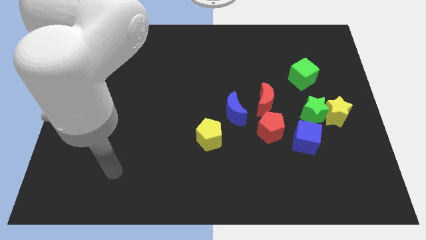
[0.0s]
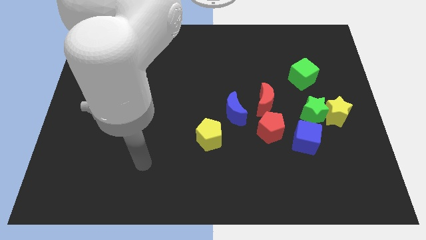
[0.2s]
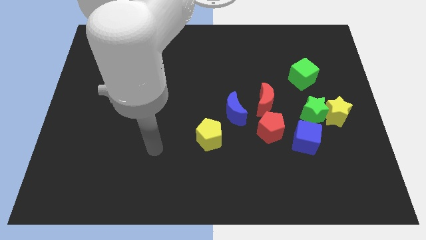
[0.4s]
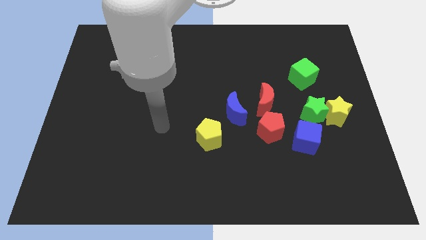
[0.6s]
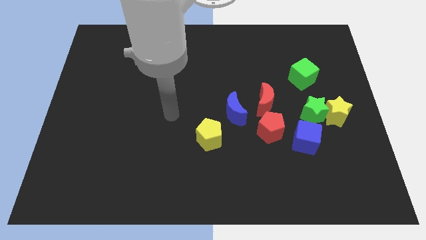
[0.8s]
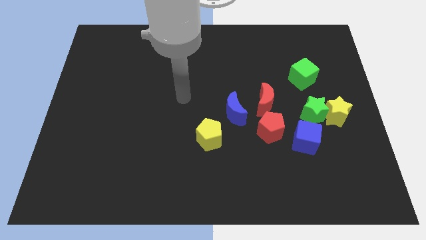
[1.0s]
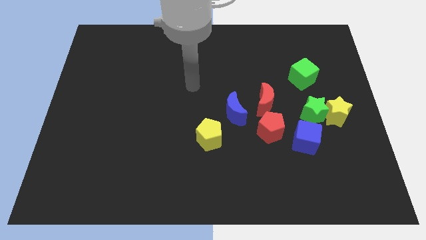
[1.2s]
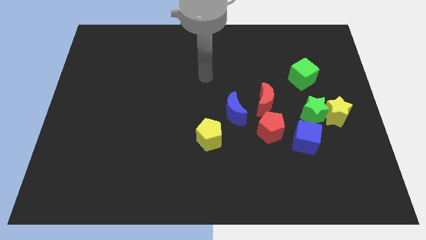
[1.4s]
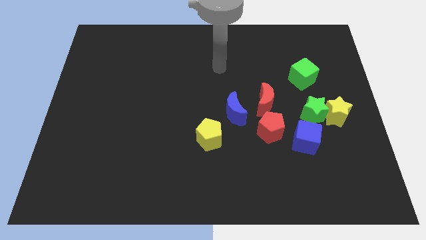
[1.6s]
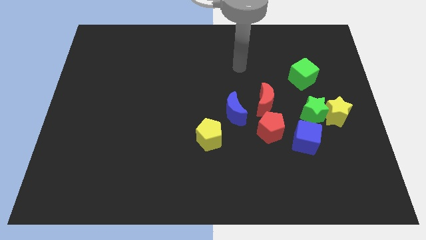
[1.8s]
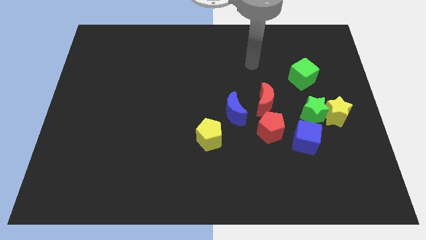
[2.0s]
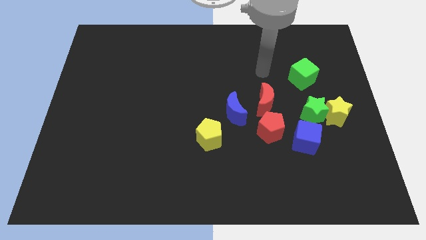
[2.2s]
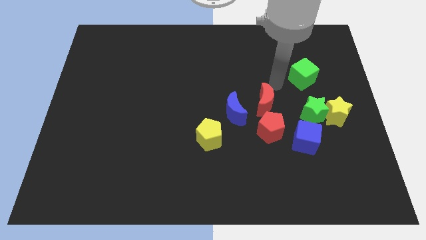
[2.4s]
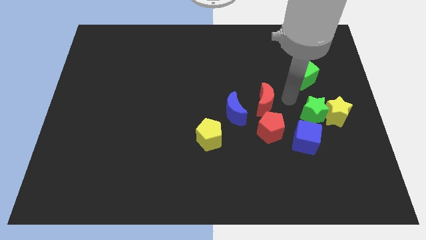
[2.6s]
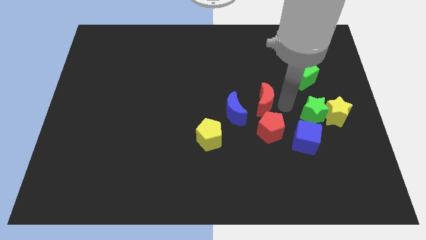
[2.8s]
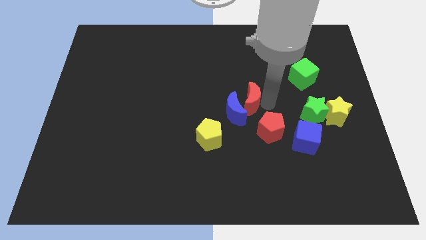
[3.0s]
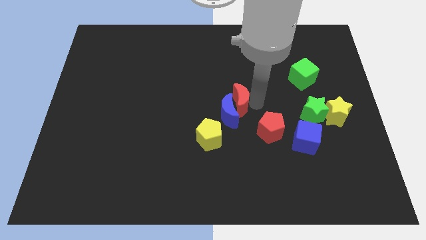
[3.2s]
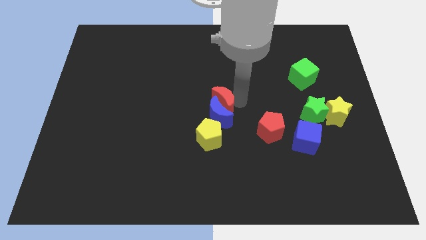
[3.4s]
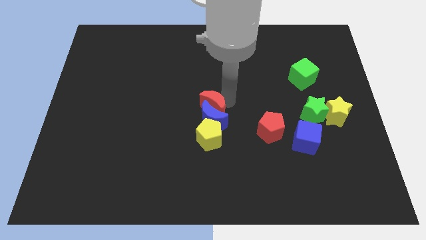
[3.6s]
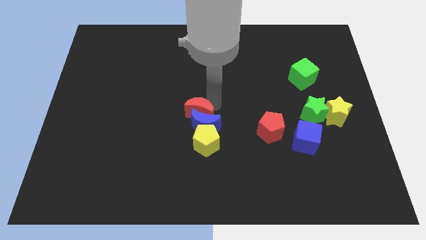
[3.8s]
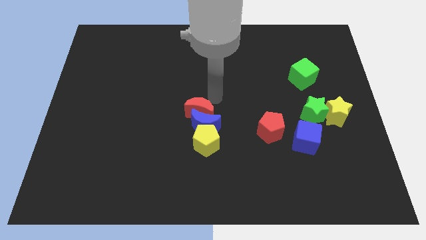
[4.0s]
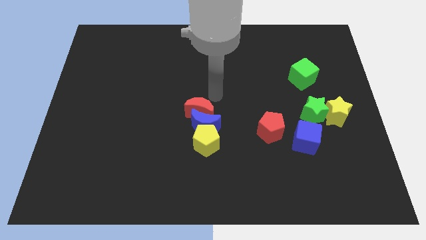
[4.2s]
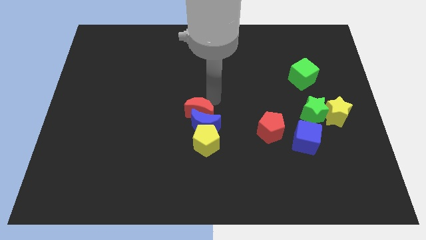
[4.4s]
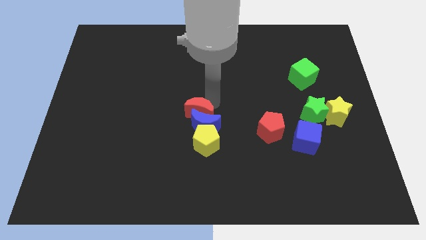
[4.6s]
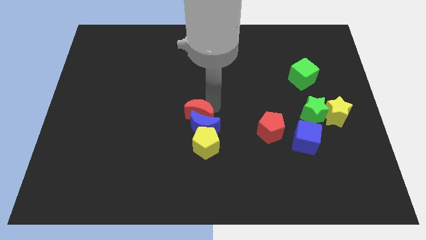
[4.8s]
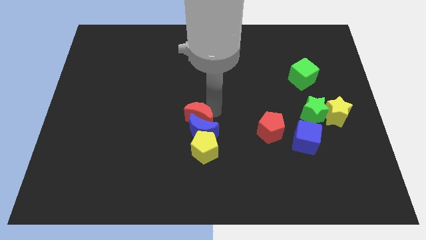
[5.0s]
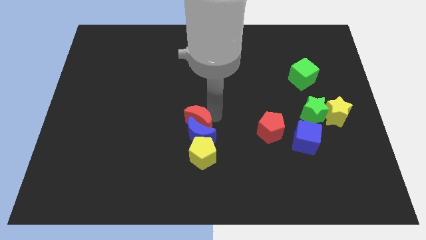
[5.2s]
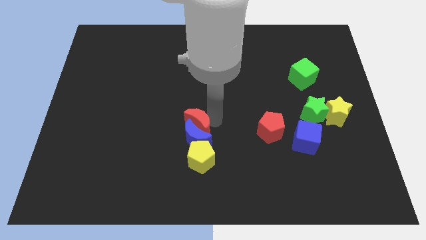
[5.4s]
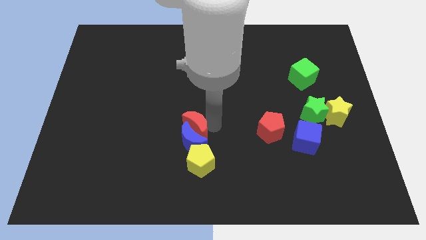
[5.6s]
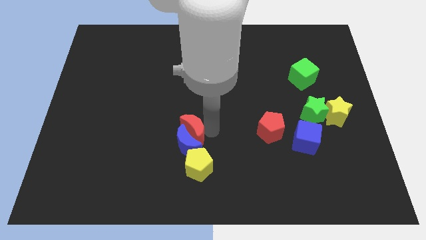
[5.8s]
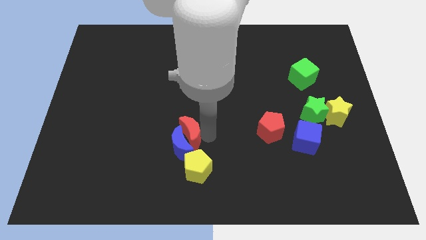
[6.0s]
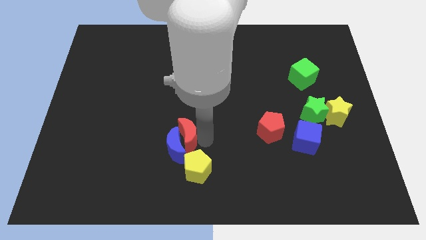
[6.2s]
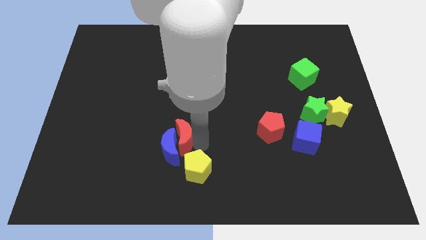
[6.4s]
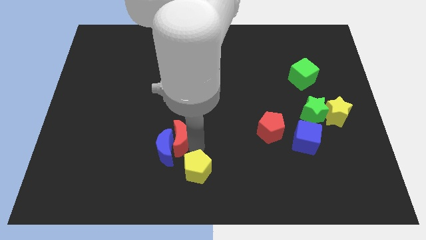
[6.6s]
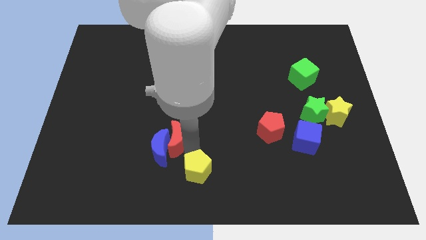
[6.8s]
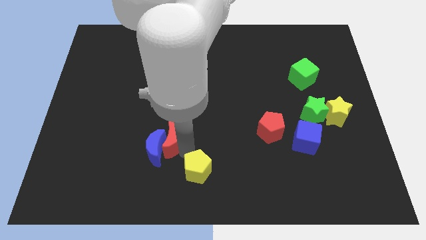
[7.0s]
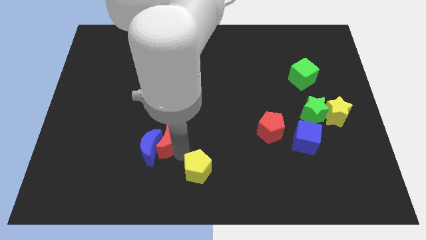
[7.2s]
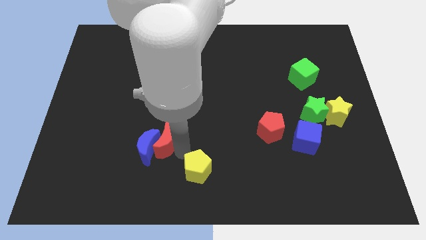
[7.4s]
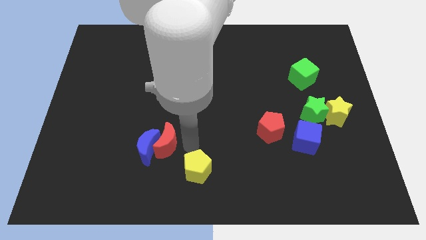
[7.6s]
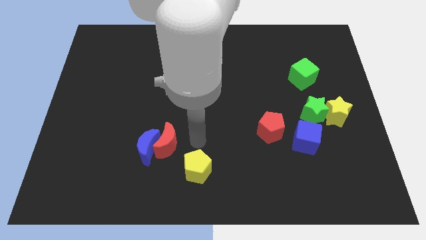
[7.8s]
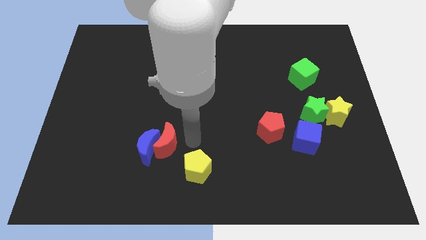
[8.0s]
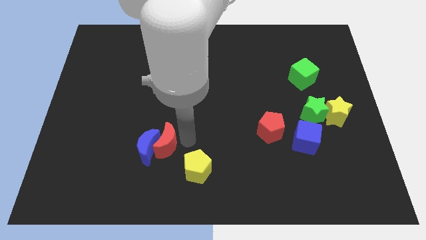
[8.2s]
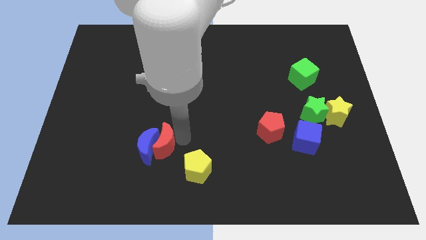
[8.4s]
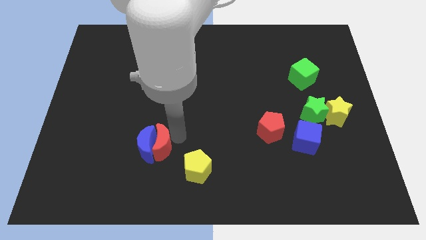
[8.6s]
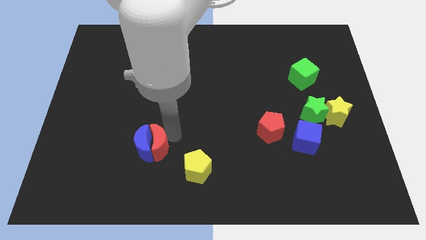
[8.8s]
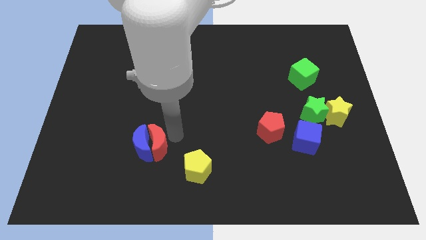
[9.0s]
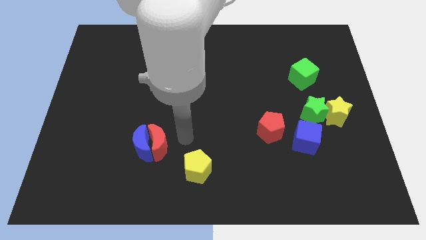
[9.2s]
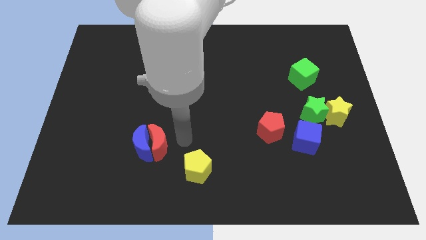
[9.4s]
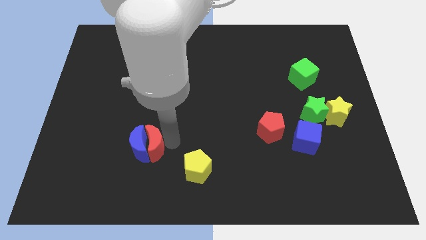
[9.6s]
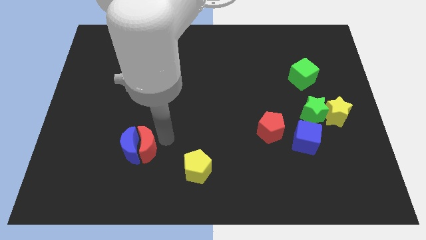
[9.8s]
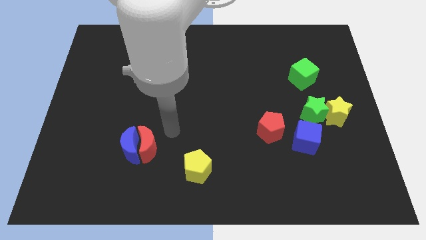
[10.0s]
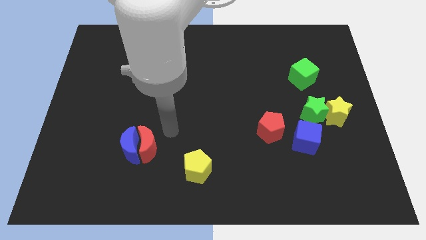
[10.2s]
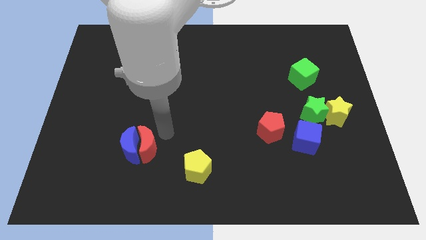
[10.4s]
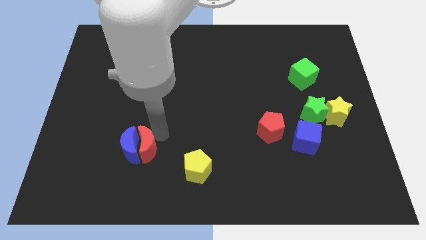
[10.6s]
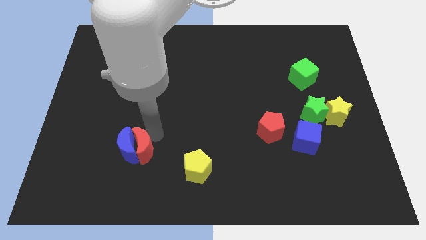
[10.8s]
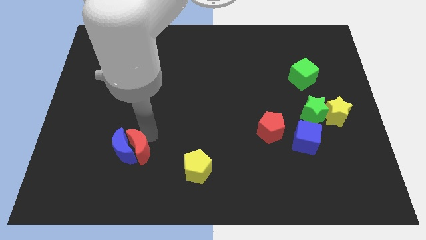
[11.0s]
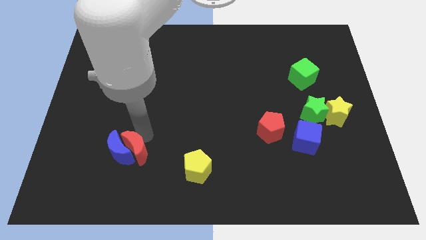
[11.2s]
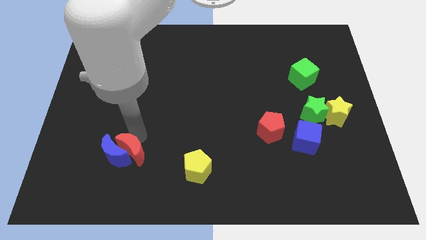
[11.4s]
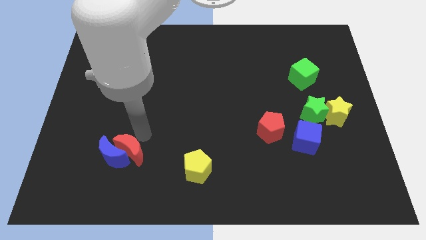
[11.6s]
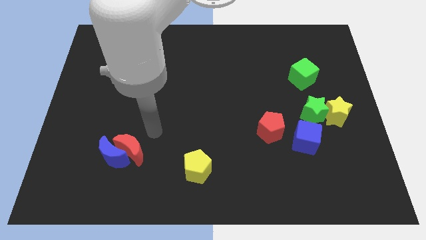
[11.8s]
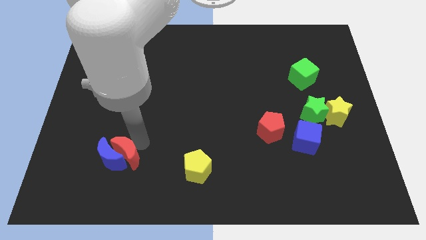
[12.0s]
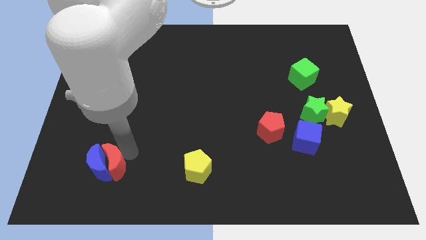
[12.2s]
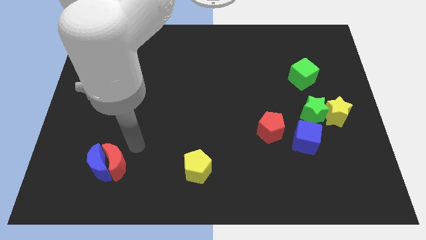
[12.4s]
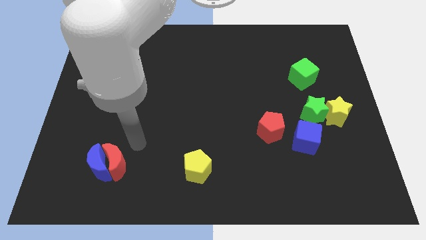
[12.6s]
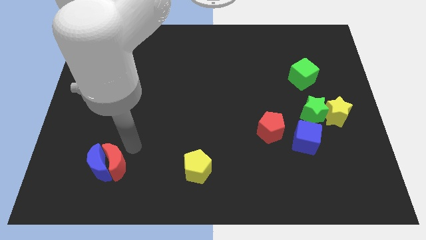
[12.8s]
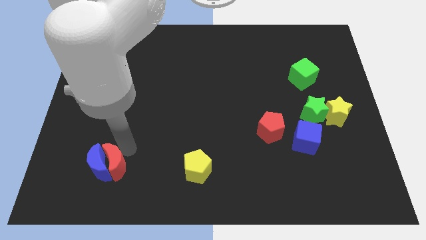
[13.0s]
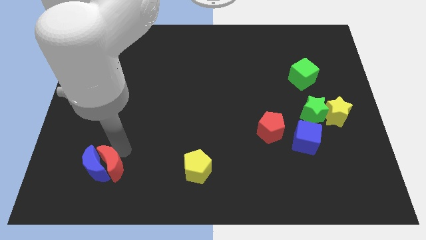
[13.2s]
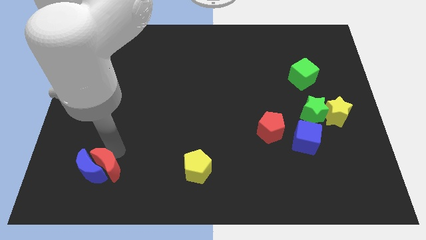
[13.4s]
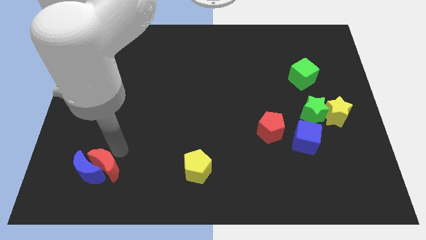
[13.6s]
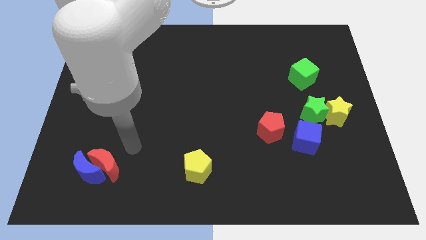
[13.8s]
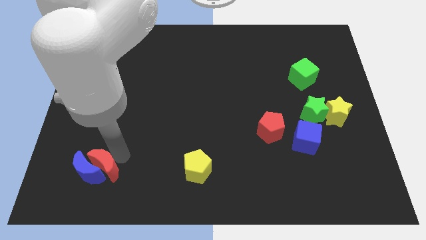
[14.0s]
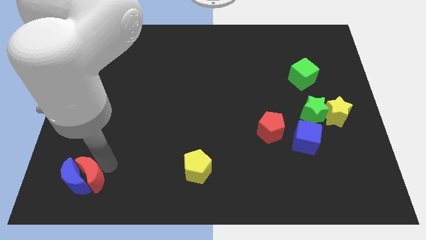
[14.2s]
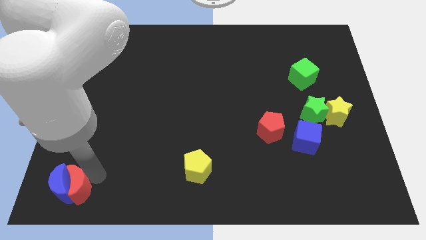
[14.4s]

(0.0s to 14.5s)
slide the red moon to the bottom left
